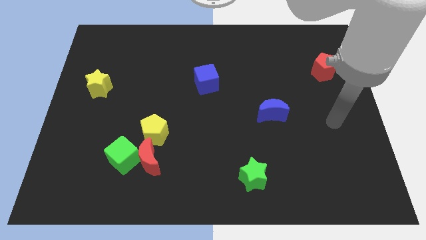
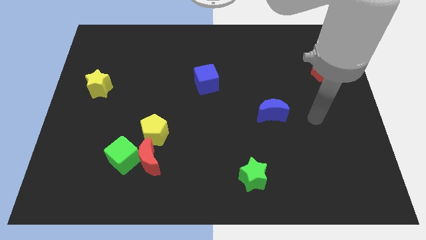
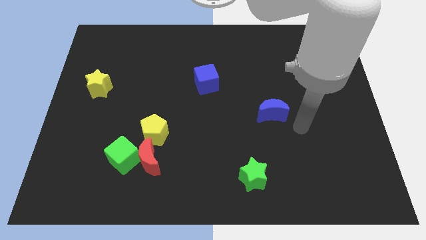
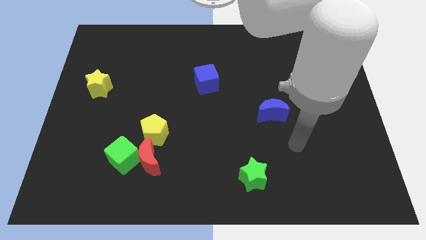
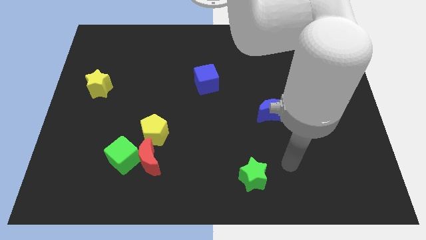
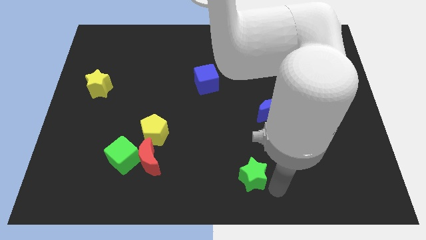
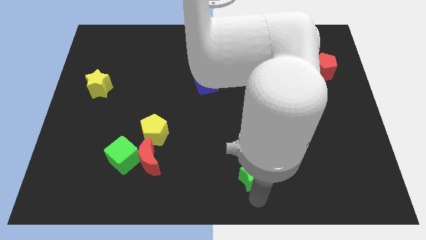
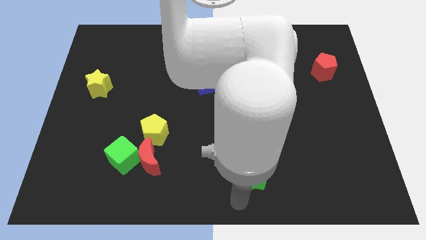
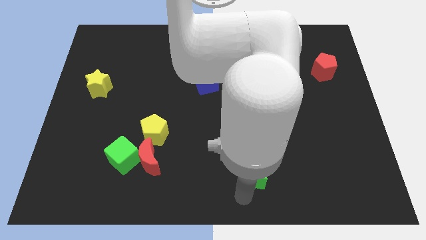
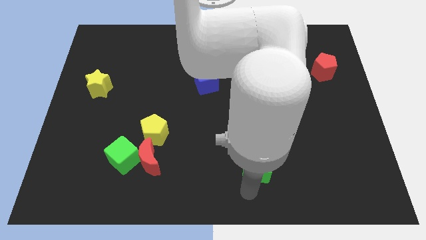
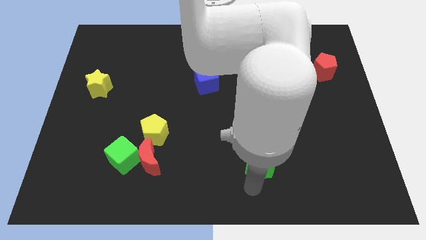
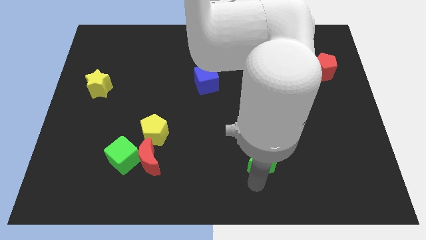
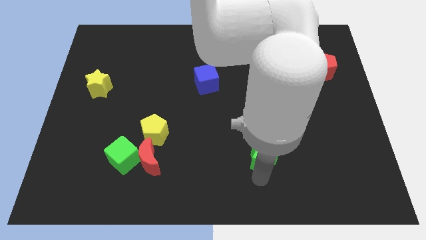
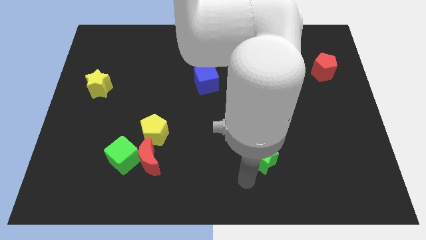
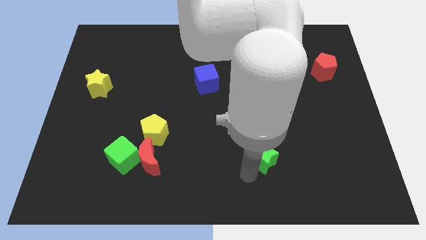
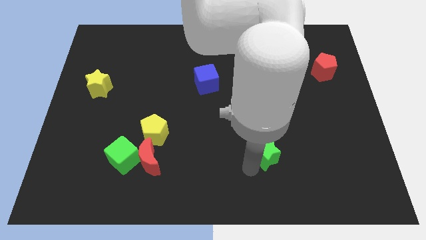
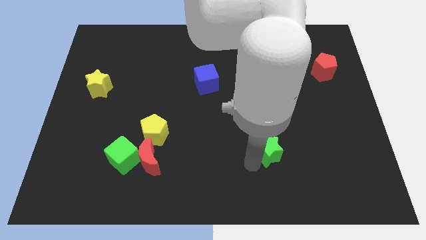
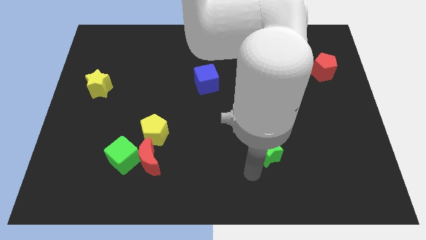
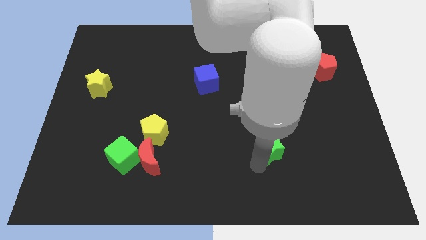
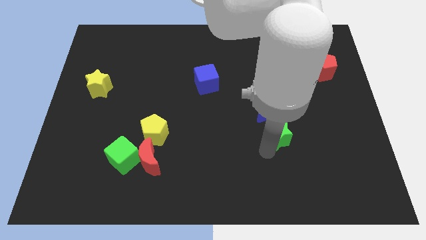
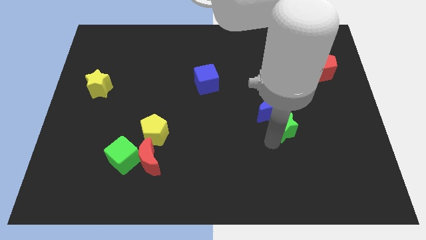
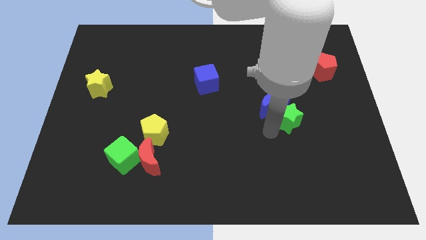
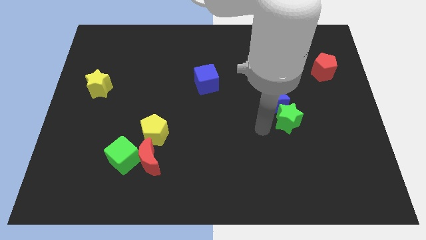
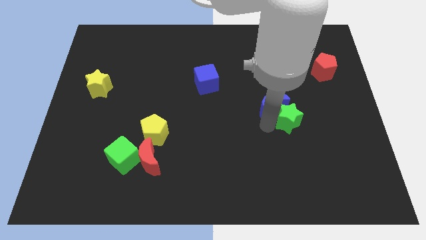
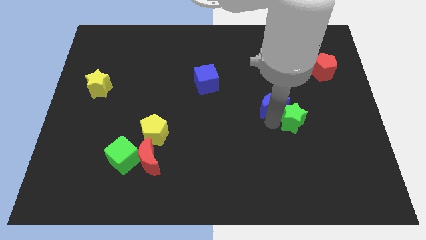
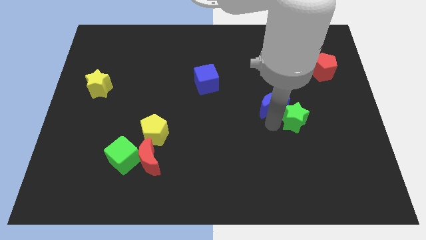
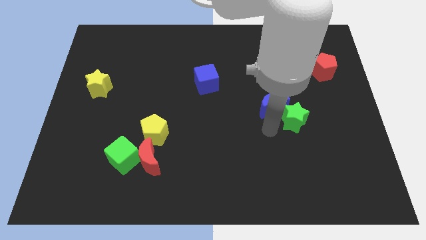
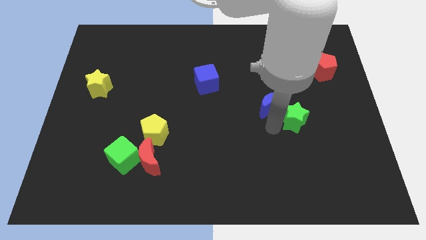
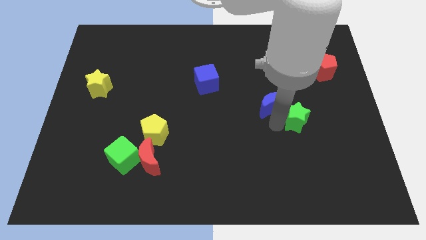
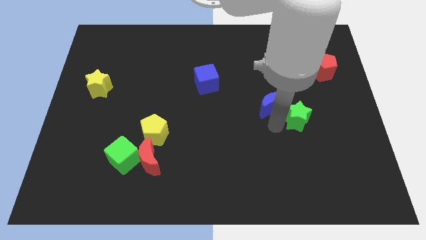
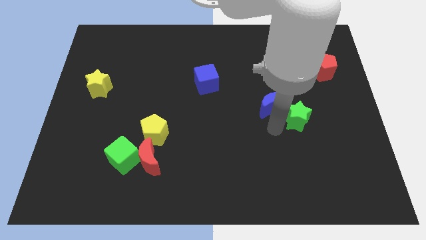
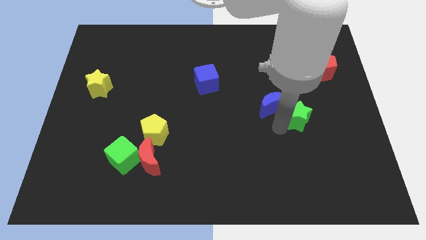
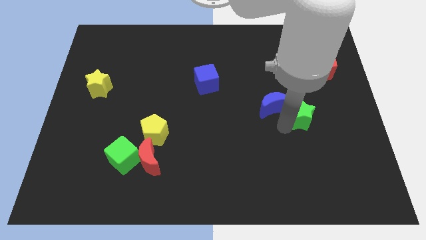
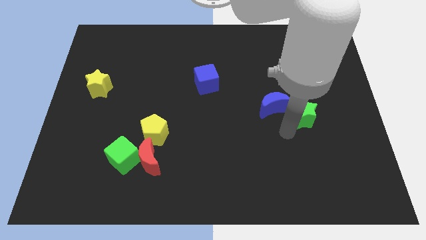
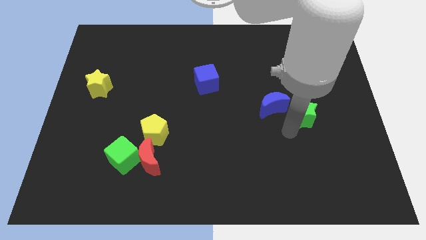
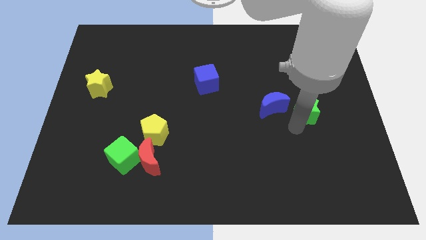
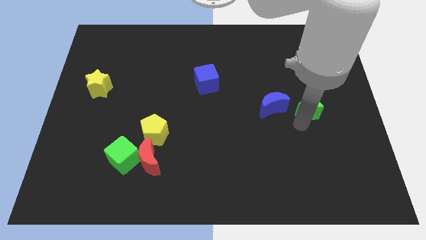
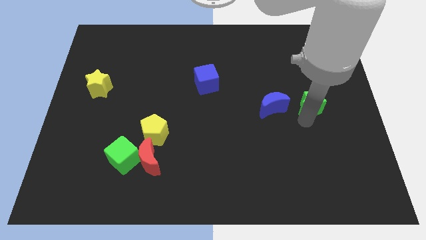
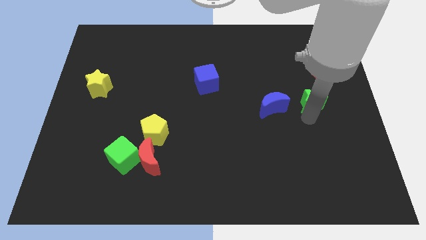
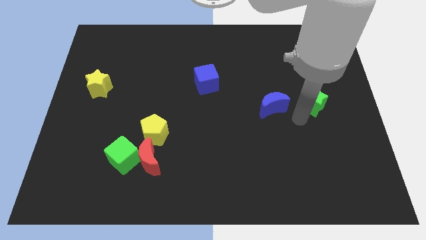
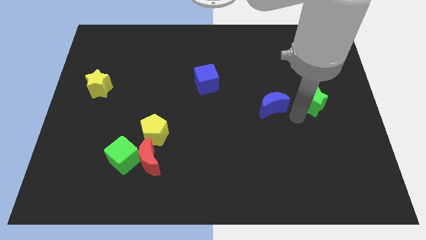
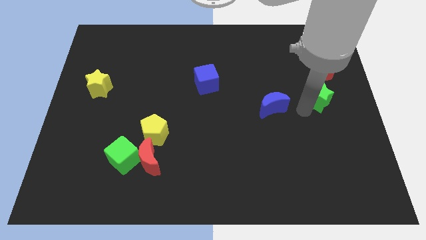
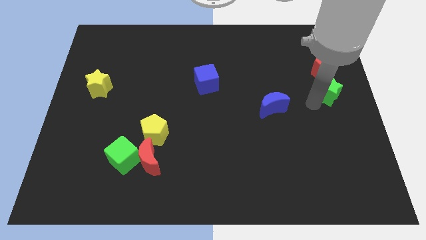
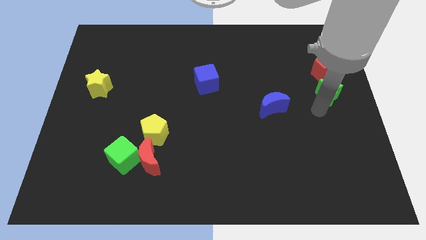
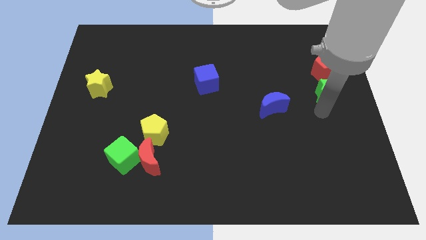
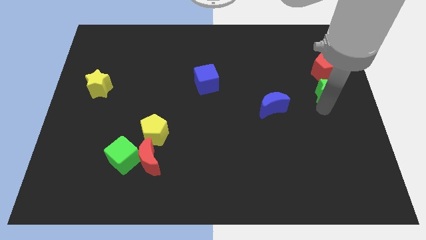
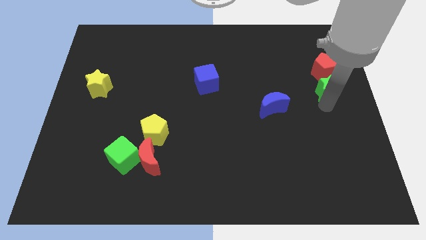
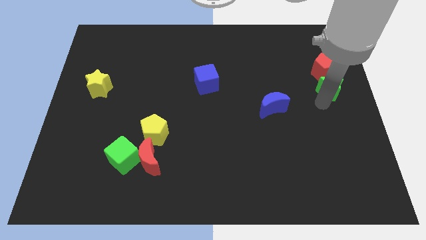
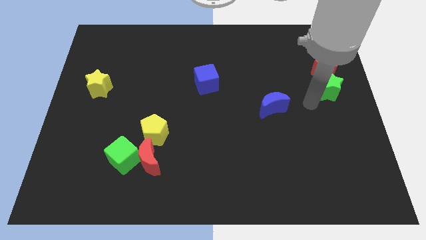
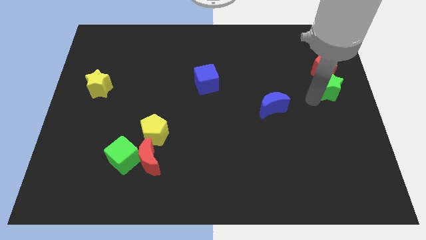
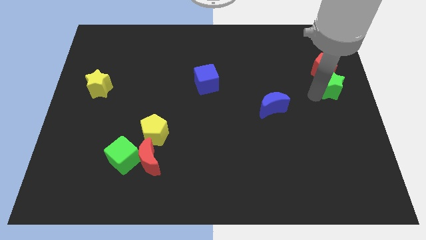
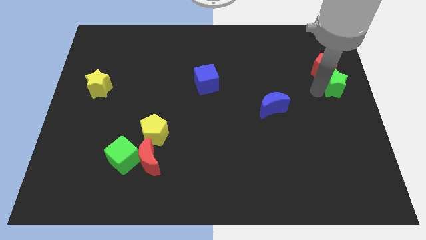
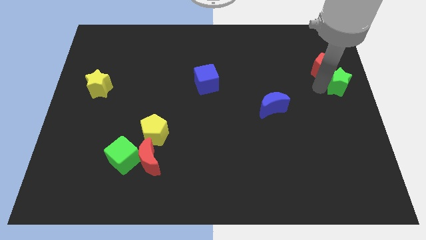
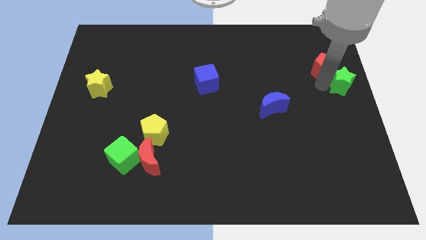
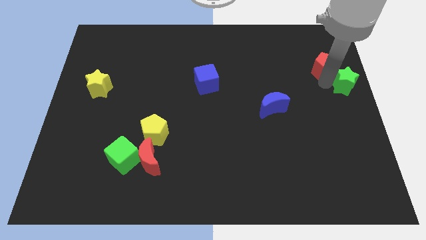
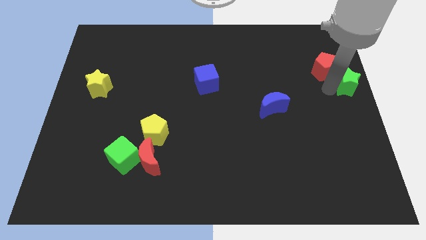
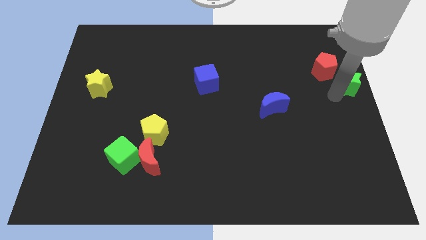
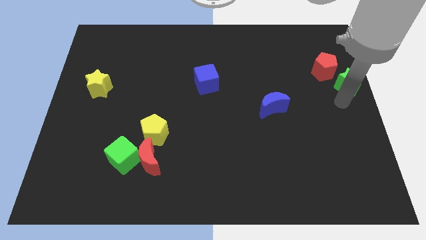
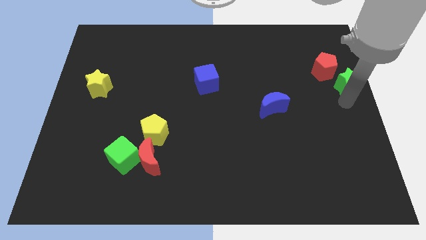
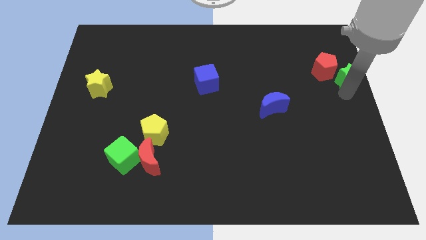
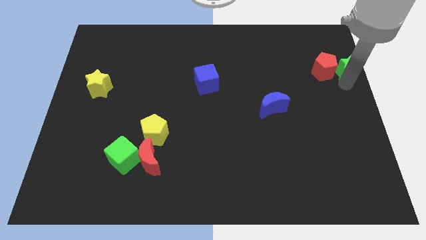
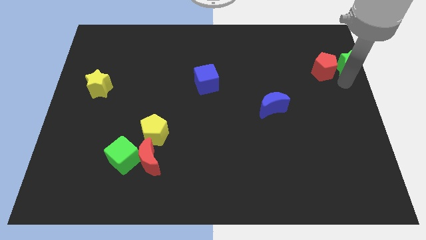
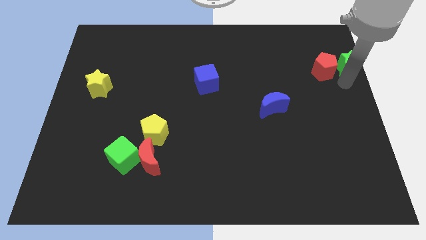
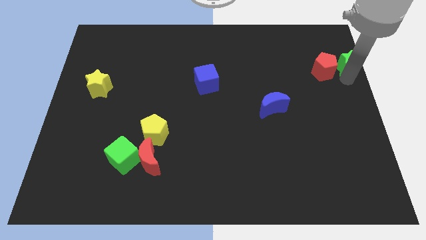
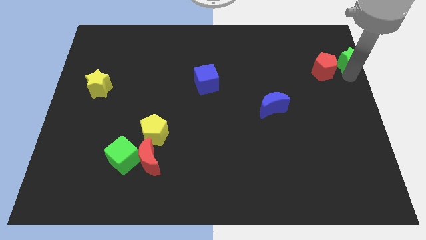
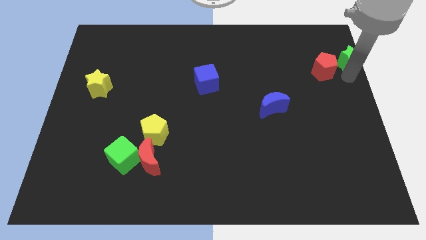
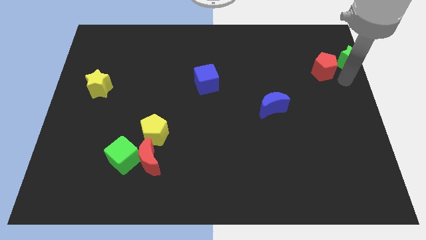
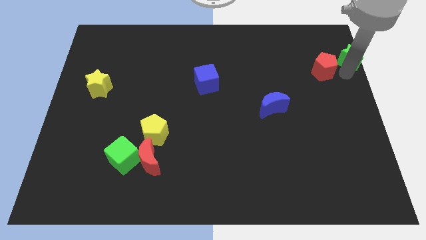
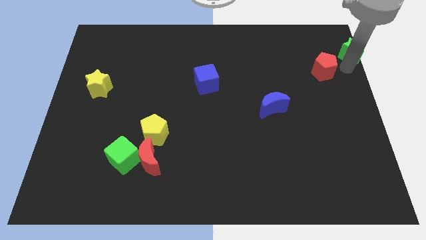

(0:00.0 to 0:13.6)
put the green star to the upper right corner
